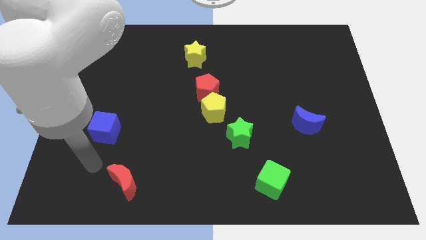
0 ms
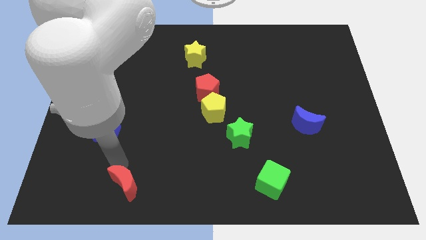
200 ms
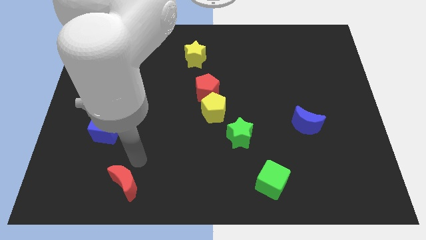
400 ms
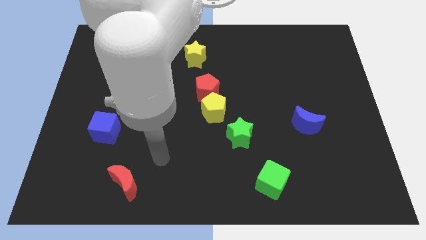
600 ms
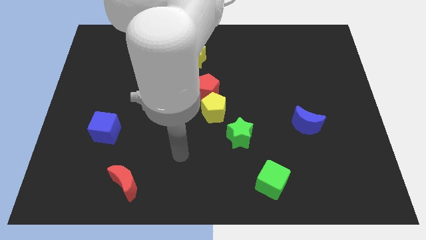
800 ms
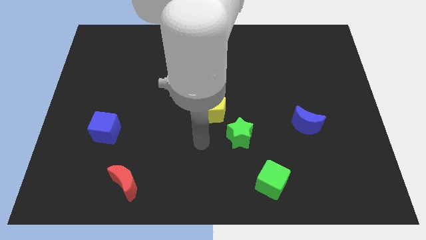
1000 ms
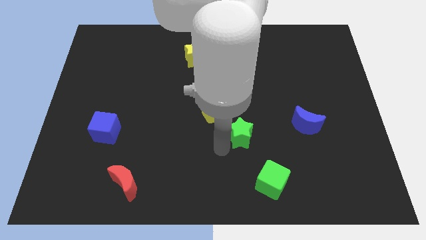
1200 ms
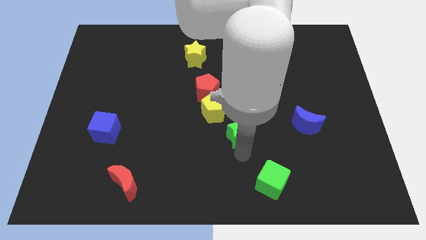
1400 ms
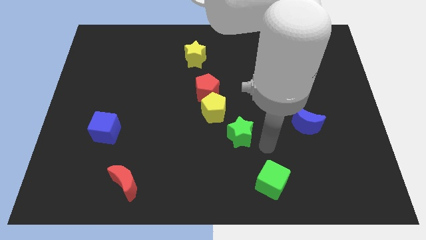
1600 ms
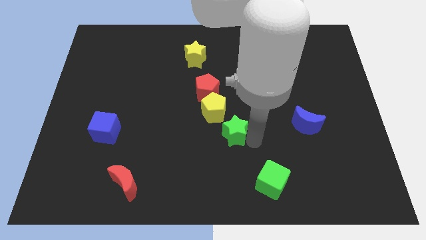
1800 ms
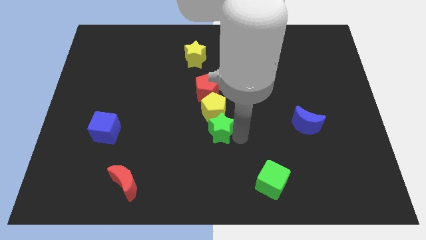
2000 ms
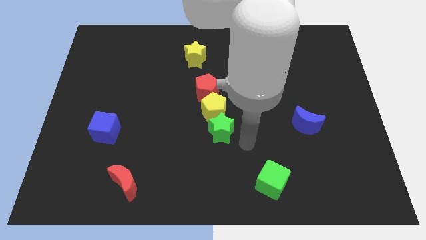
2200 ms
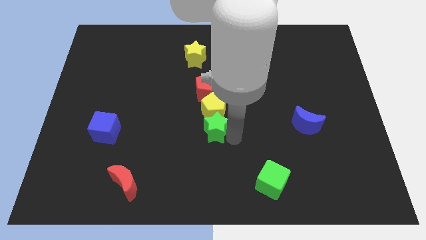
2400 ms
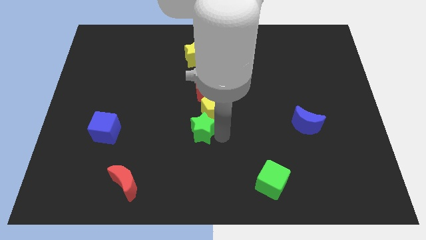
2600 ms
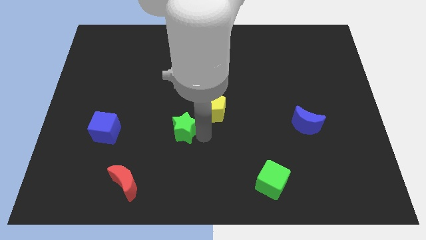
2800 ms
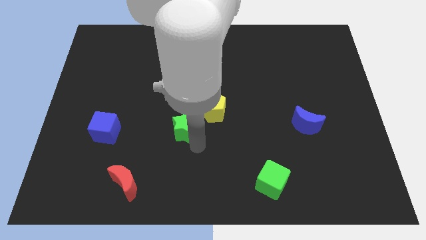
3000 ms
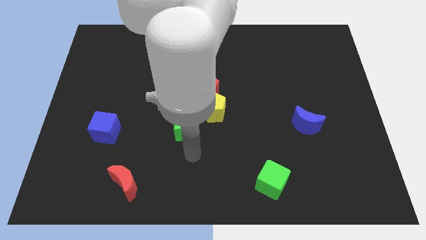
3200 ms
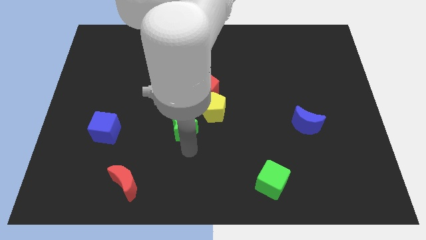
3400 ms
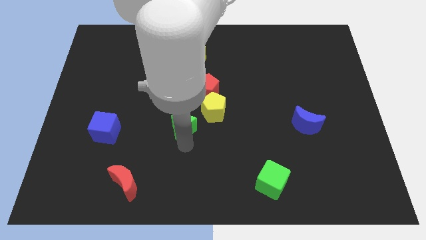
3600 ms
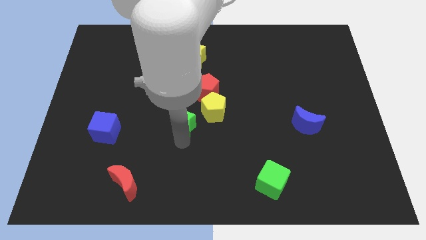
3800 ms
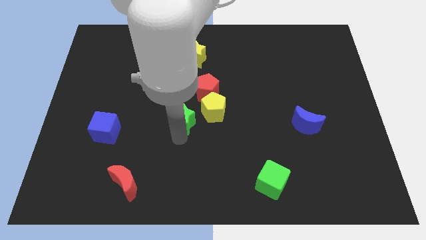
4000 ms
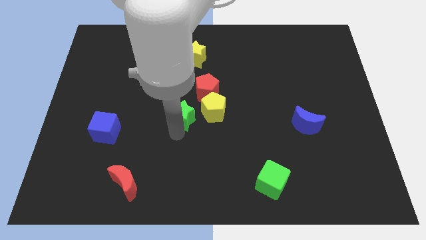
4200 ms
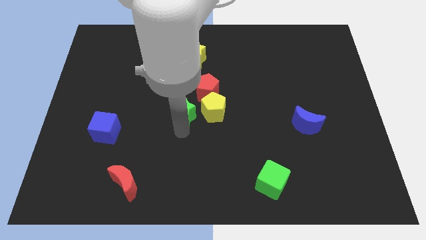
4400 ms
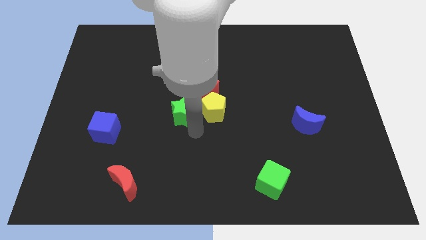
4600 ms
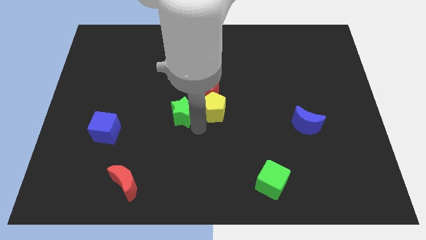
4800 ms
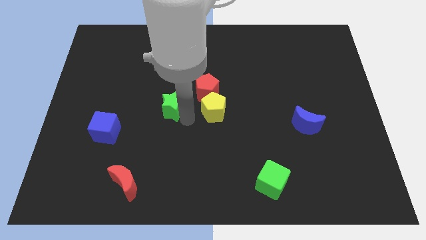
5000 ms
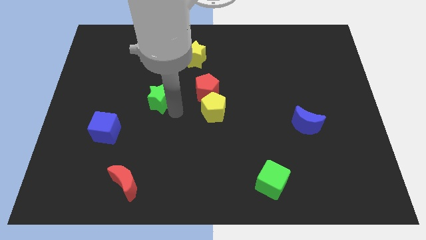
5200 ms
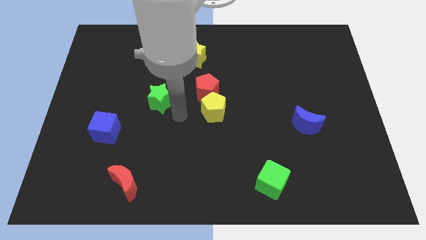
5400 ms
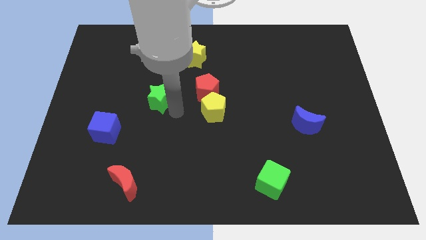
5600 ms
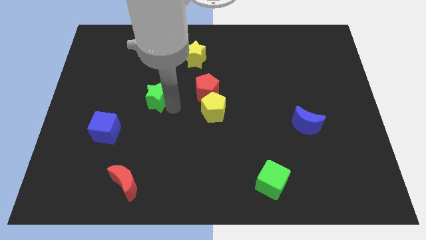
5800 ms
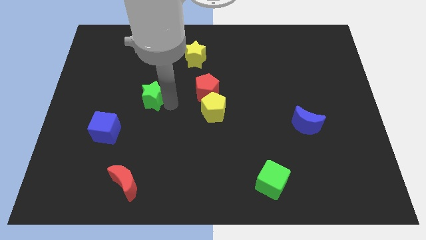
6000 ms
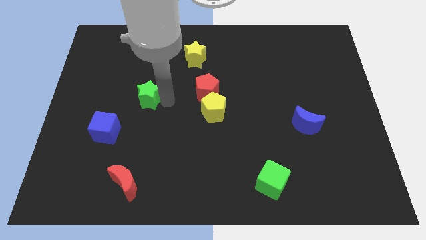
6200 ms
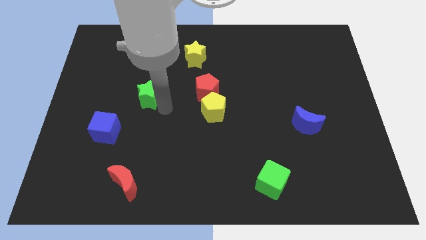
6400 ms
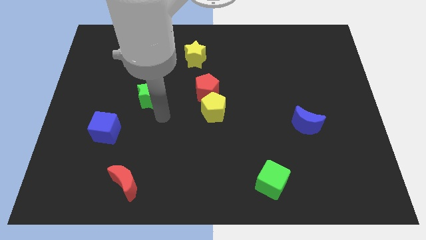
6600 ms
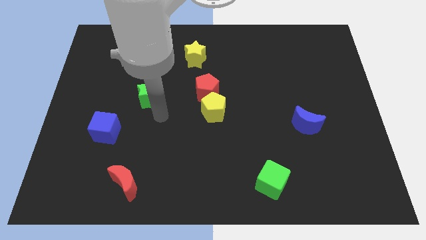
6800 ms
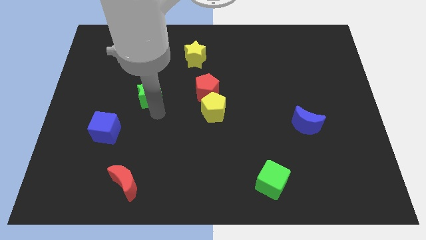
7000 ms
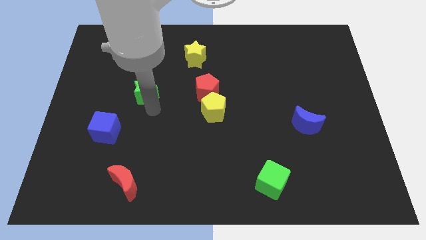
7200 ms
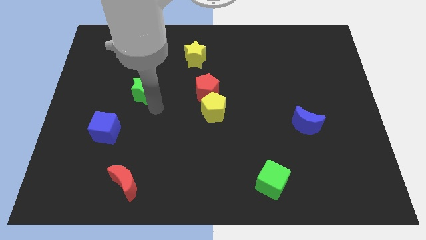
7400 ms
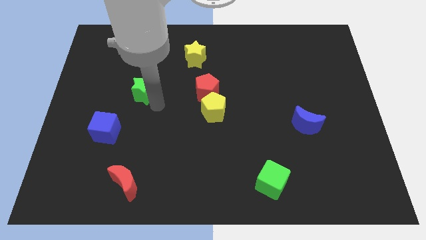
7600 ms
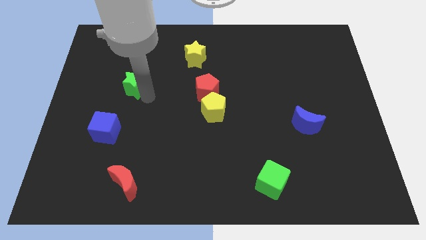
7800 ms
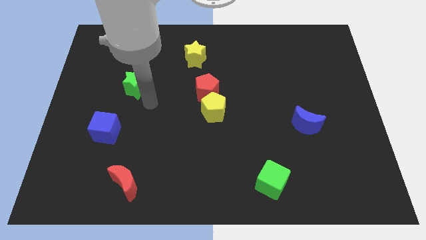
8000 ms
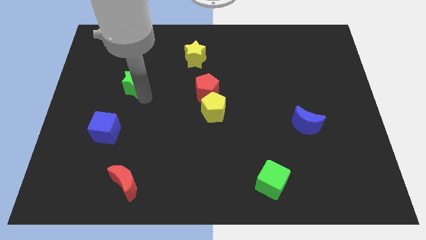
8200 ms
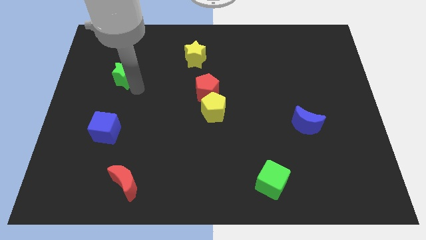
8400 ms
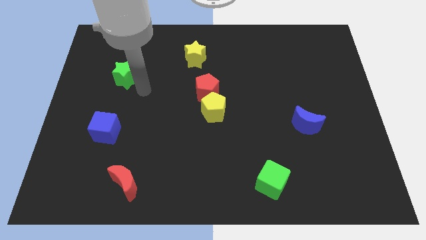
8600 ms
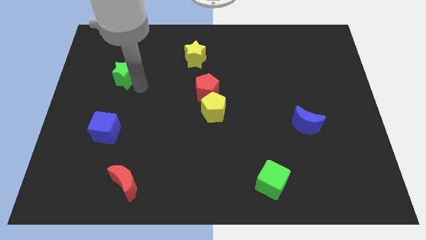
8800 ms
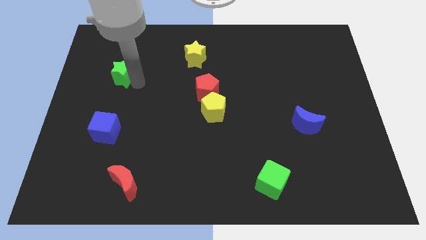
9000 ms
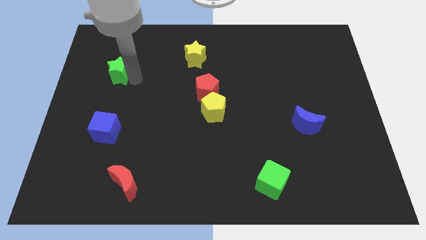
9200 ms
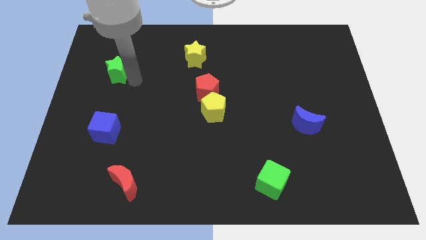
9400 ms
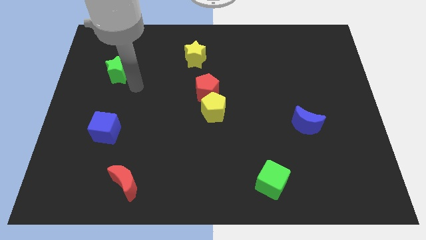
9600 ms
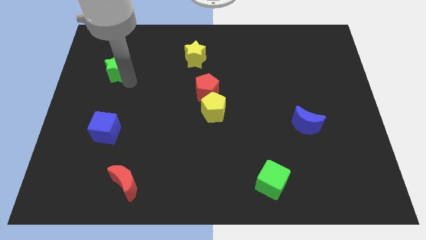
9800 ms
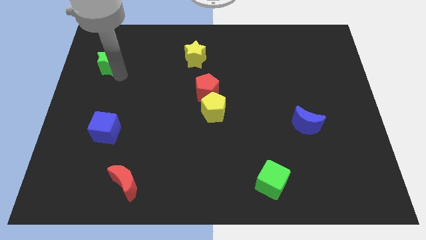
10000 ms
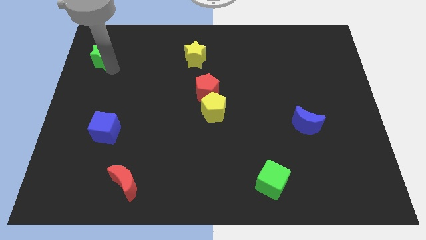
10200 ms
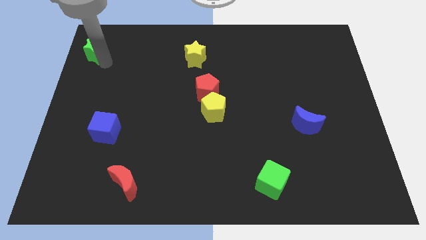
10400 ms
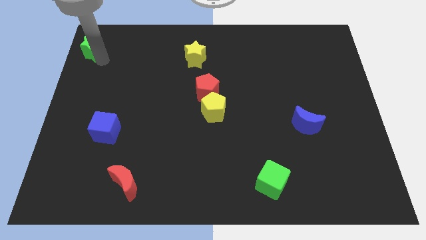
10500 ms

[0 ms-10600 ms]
put the green star to the upper left corner

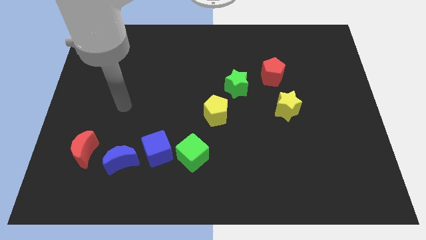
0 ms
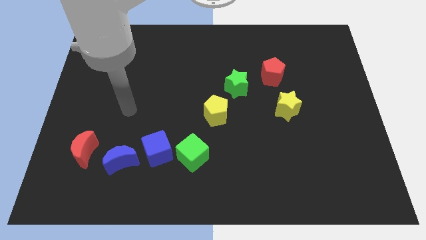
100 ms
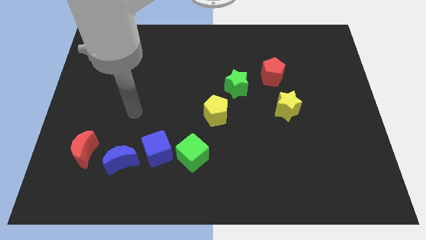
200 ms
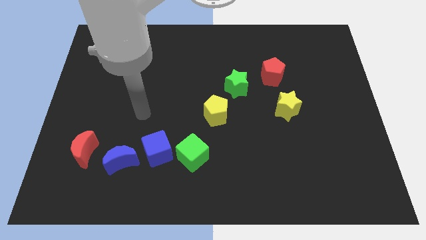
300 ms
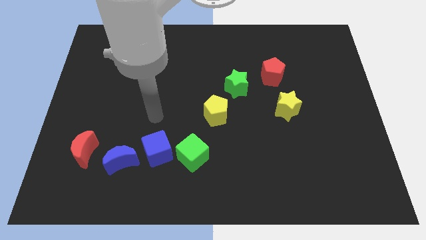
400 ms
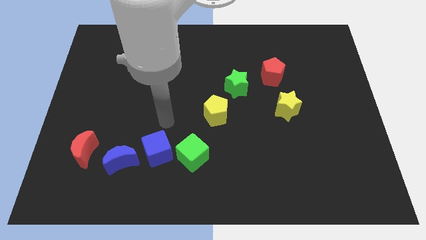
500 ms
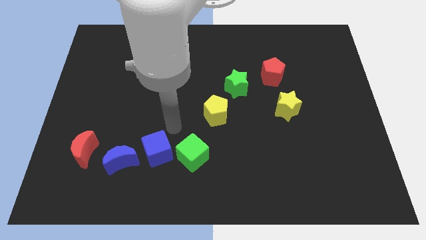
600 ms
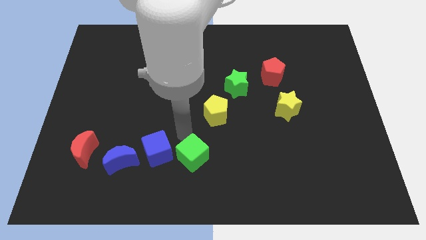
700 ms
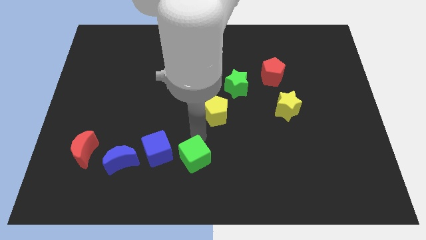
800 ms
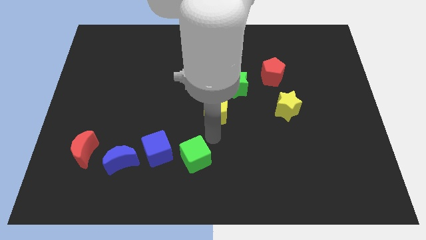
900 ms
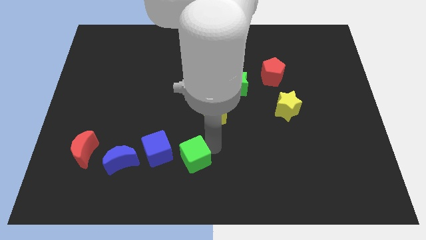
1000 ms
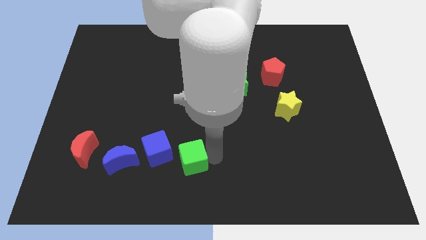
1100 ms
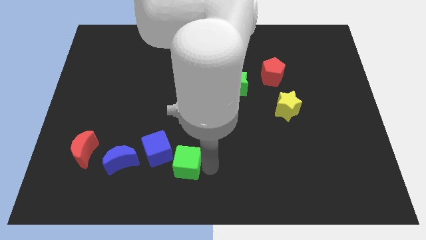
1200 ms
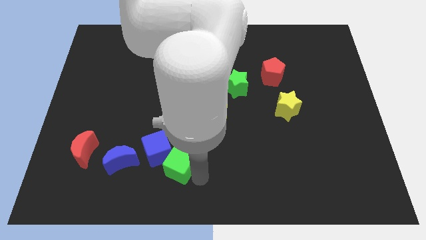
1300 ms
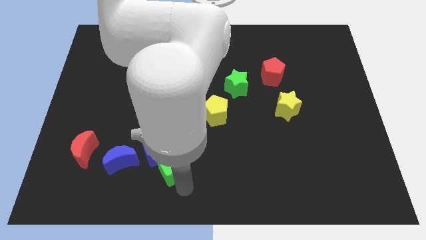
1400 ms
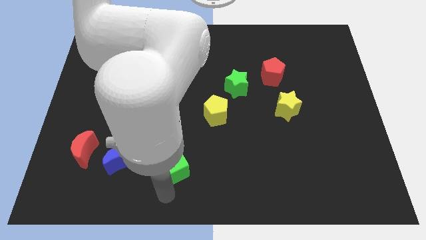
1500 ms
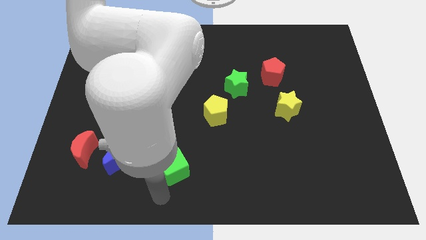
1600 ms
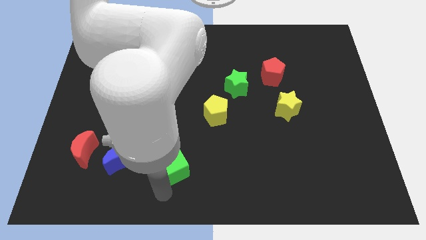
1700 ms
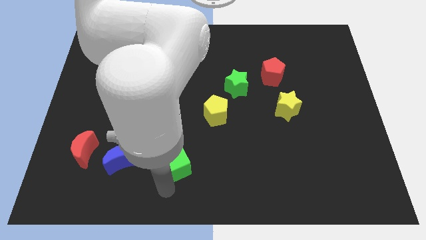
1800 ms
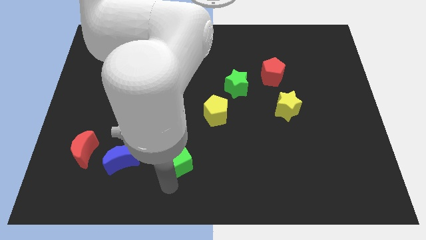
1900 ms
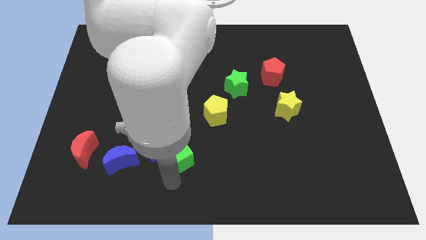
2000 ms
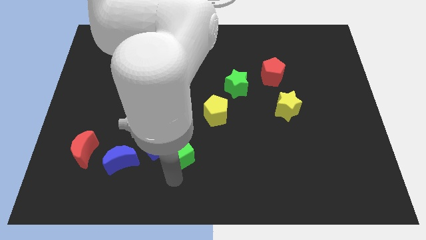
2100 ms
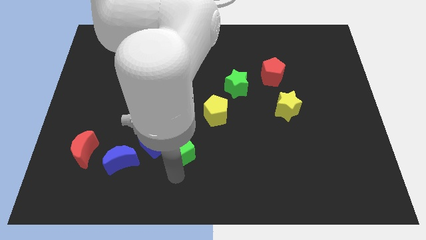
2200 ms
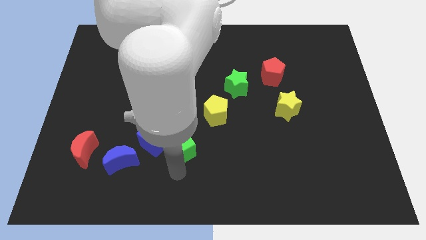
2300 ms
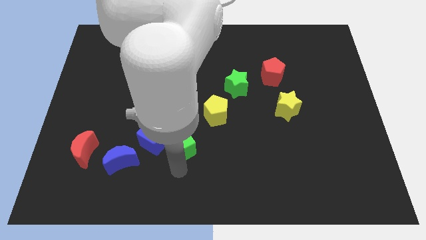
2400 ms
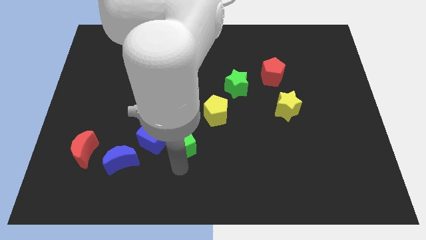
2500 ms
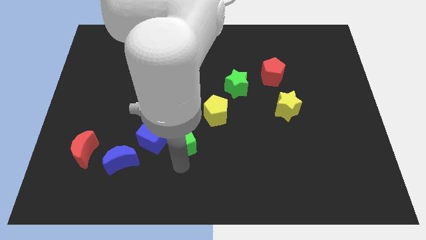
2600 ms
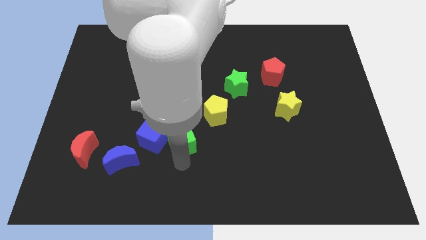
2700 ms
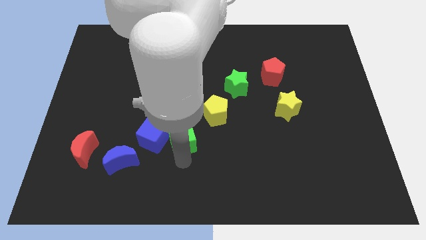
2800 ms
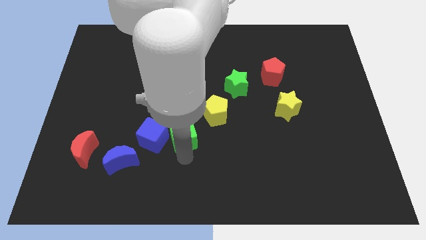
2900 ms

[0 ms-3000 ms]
move the green cube to the center
